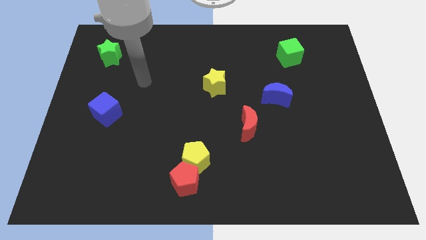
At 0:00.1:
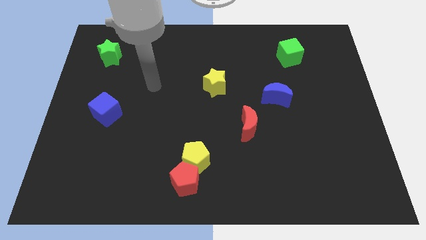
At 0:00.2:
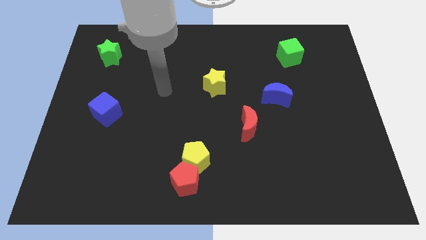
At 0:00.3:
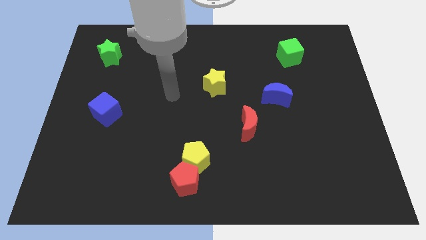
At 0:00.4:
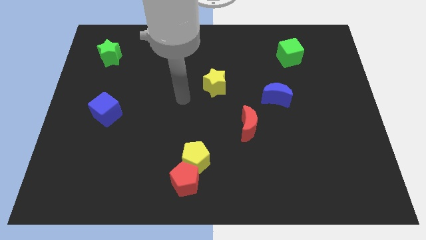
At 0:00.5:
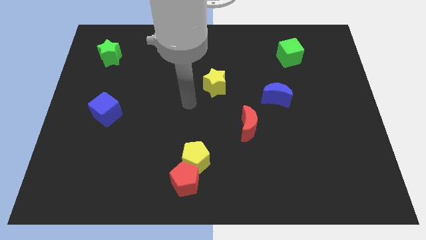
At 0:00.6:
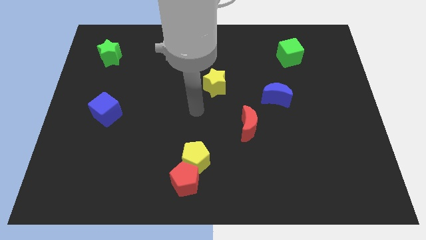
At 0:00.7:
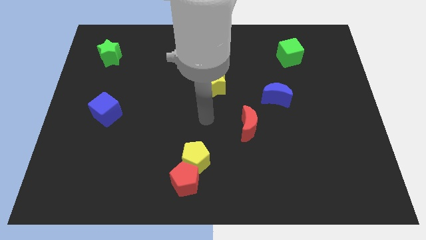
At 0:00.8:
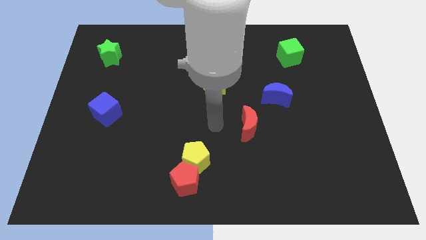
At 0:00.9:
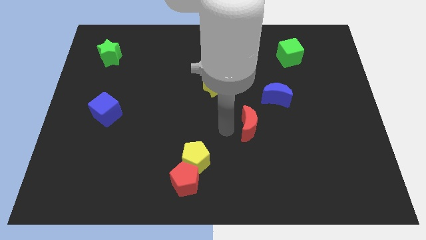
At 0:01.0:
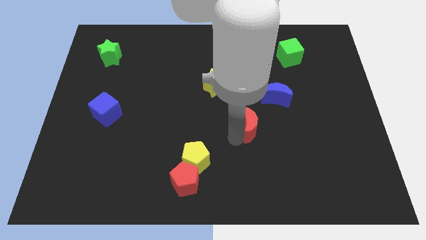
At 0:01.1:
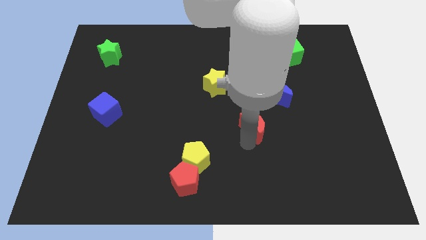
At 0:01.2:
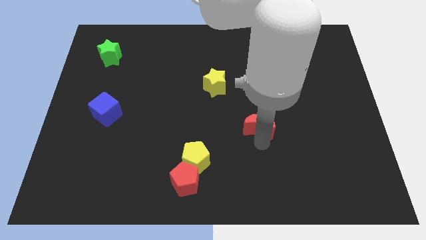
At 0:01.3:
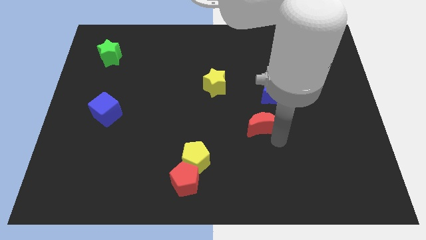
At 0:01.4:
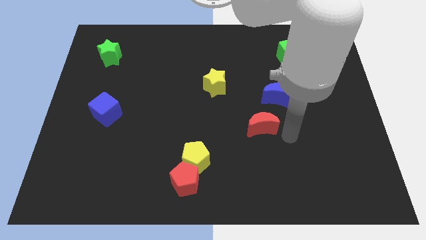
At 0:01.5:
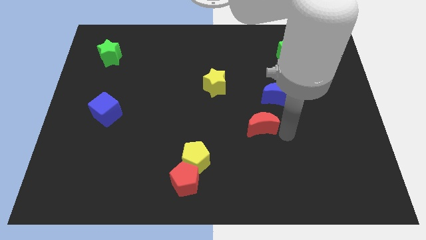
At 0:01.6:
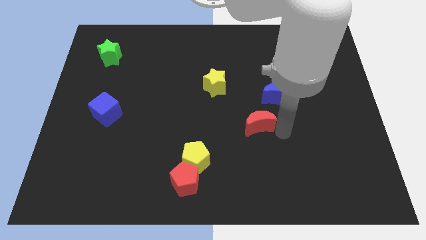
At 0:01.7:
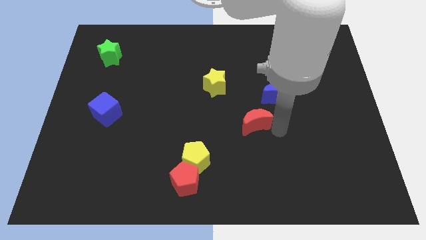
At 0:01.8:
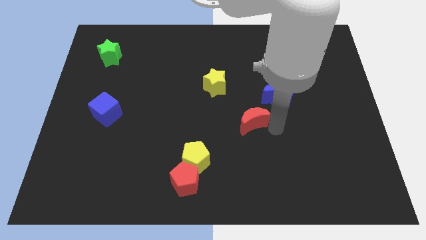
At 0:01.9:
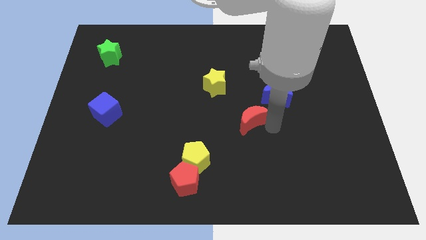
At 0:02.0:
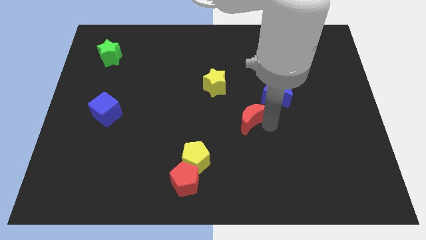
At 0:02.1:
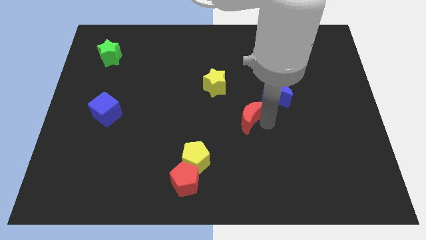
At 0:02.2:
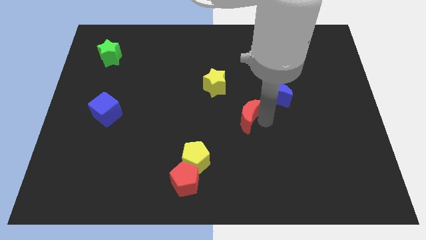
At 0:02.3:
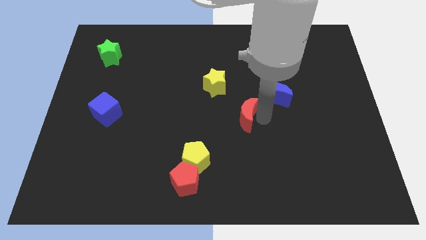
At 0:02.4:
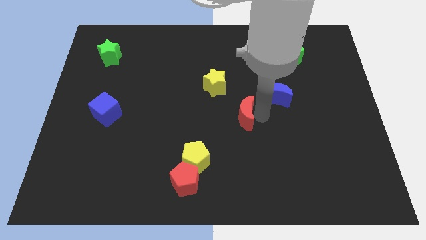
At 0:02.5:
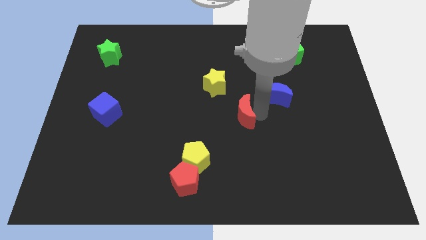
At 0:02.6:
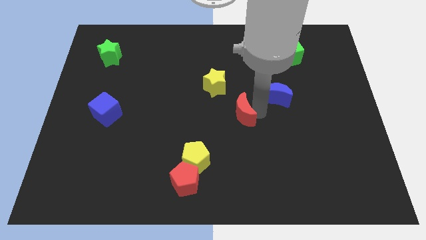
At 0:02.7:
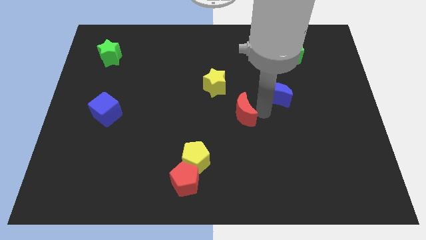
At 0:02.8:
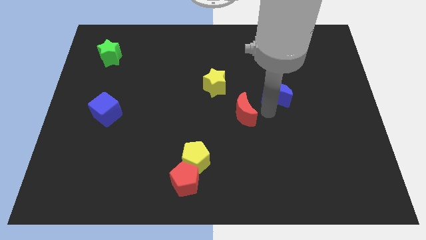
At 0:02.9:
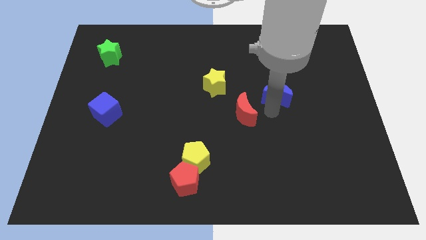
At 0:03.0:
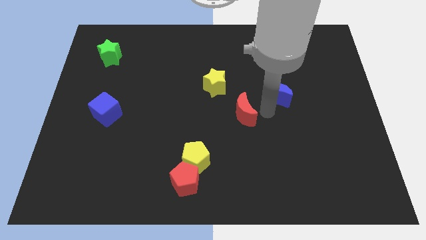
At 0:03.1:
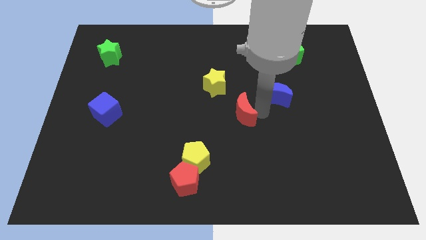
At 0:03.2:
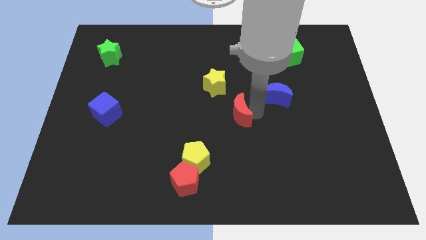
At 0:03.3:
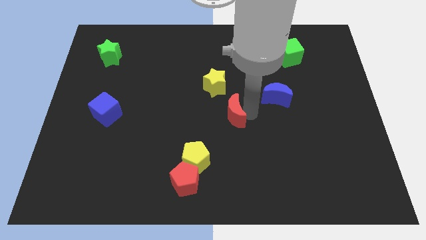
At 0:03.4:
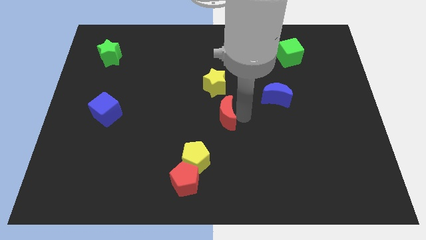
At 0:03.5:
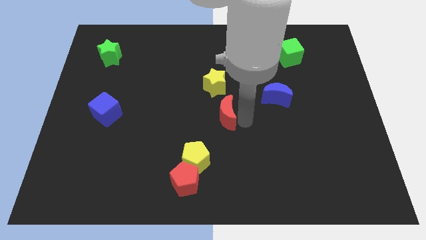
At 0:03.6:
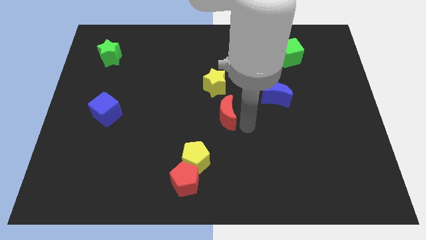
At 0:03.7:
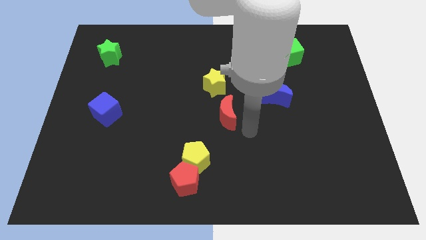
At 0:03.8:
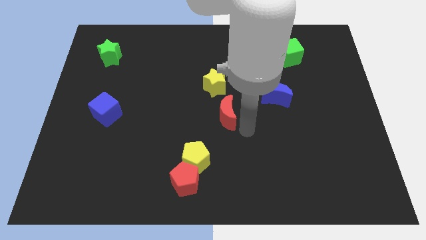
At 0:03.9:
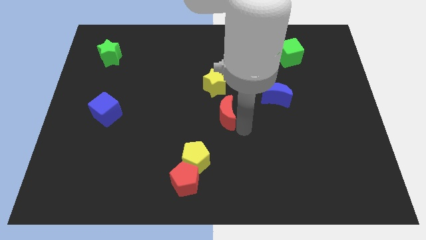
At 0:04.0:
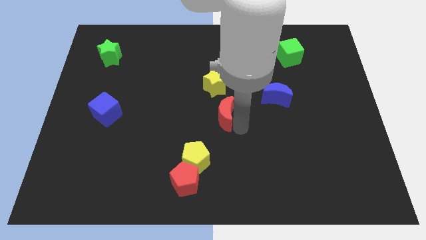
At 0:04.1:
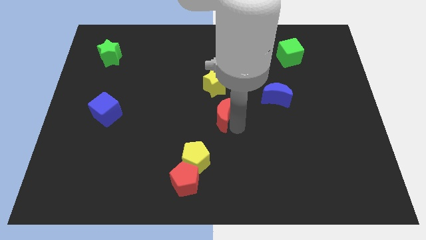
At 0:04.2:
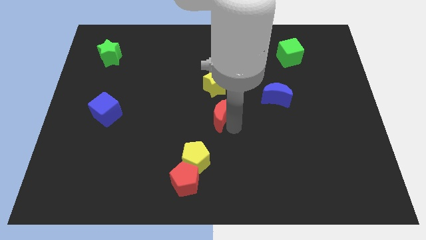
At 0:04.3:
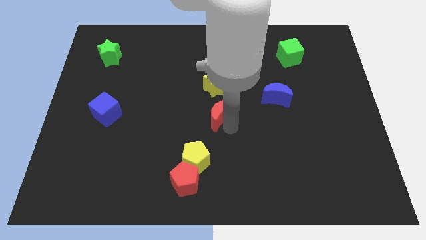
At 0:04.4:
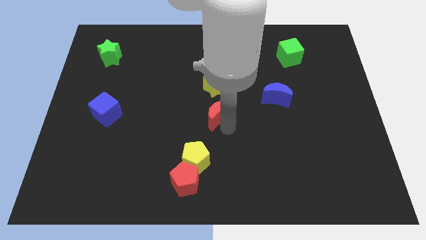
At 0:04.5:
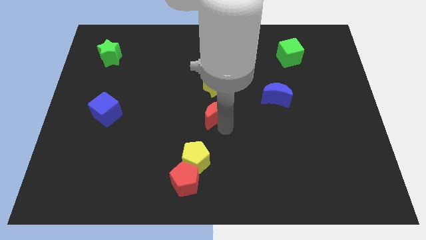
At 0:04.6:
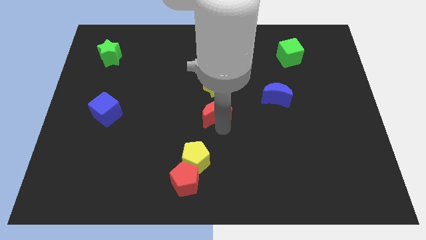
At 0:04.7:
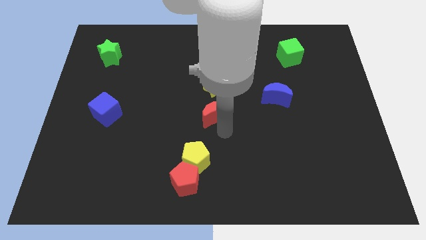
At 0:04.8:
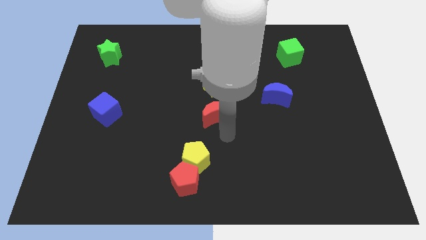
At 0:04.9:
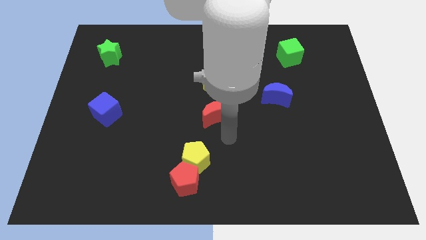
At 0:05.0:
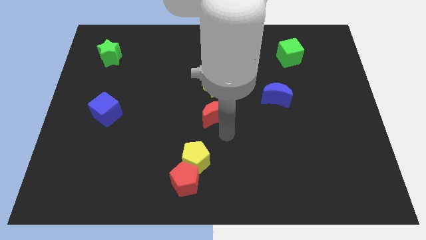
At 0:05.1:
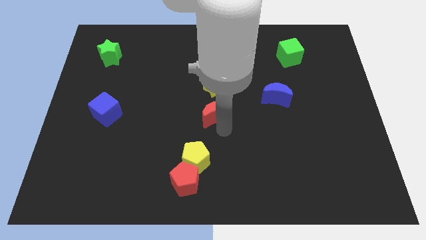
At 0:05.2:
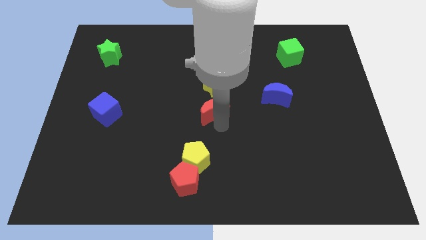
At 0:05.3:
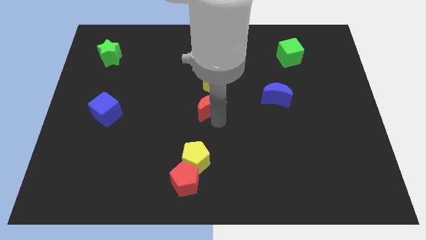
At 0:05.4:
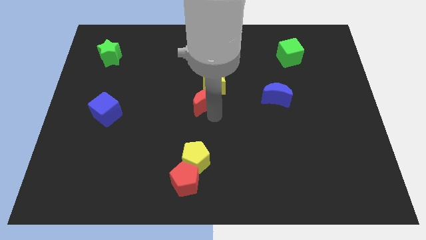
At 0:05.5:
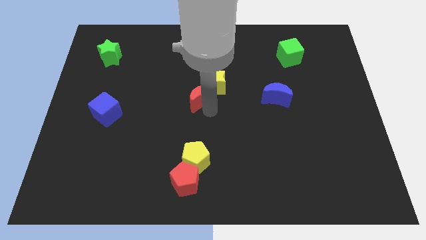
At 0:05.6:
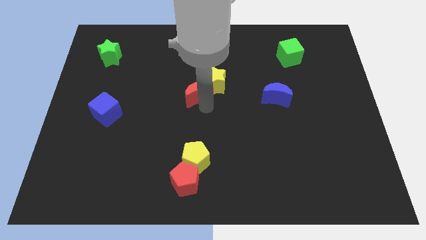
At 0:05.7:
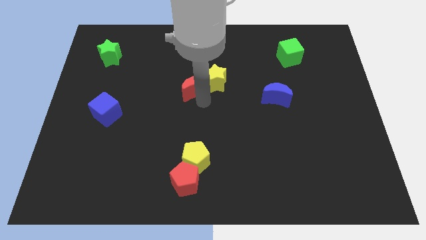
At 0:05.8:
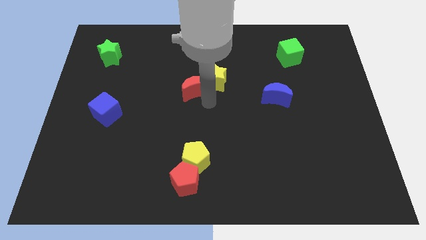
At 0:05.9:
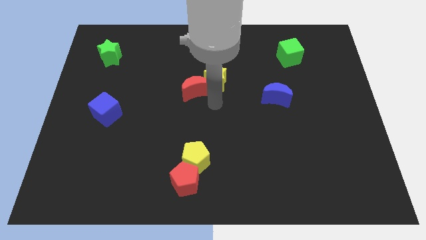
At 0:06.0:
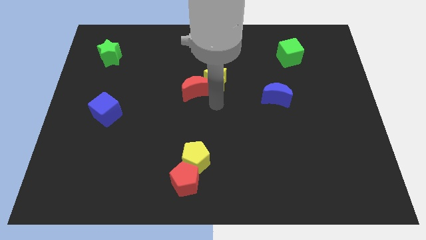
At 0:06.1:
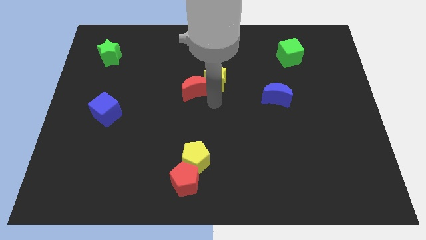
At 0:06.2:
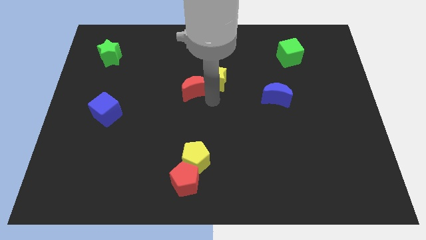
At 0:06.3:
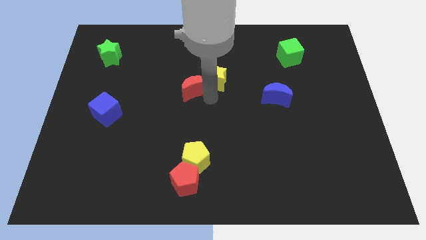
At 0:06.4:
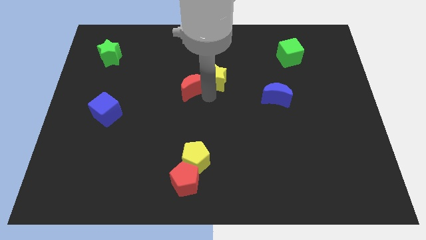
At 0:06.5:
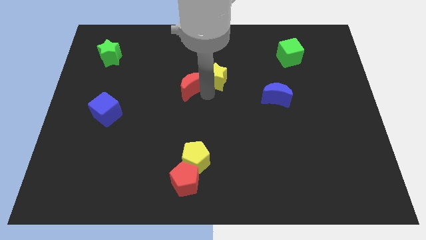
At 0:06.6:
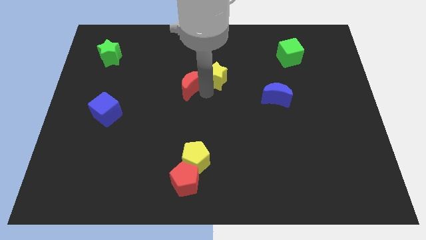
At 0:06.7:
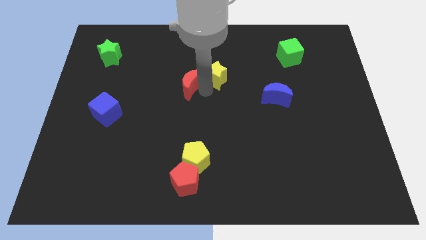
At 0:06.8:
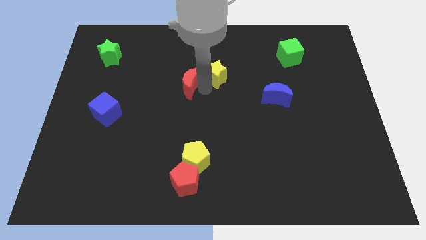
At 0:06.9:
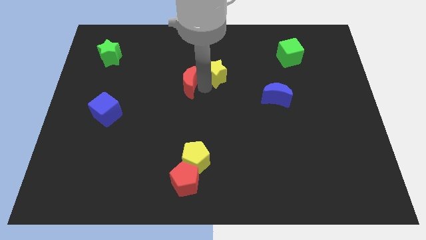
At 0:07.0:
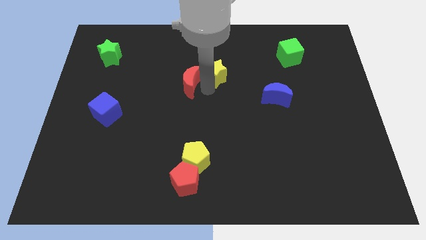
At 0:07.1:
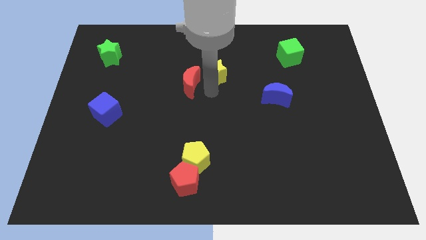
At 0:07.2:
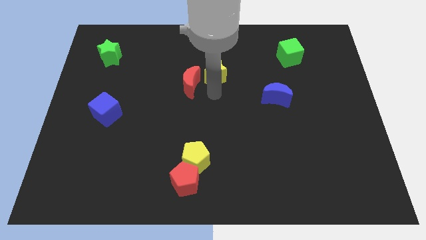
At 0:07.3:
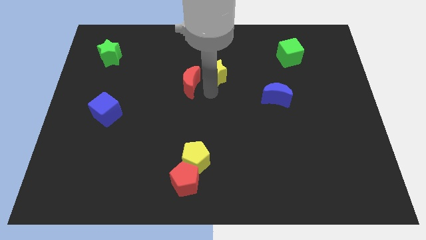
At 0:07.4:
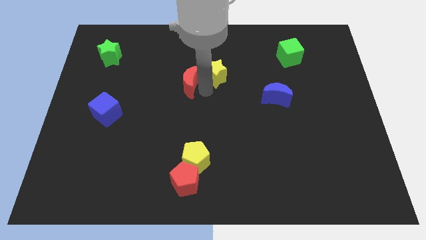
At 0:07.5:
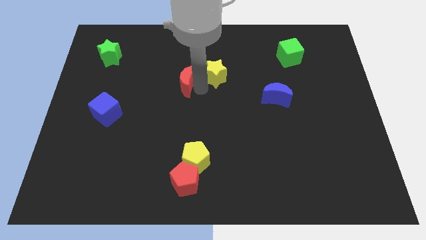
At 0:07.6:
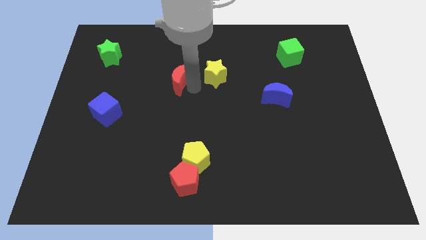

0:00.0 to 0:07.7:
move the red moon diagonally upwards and left

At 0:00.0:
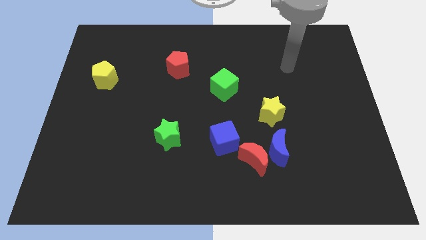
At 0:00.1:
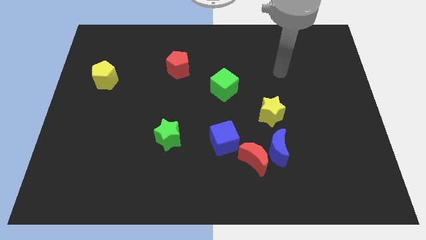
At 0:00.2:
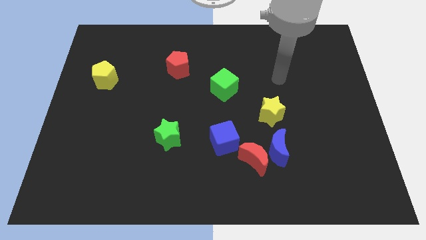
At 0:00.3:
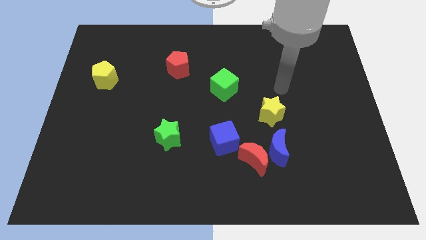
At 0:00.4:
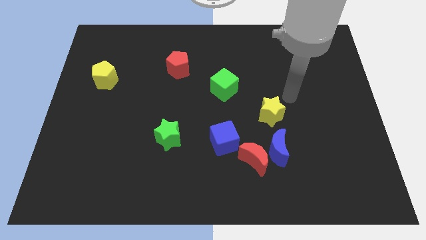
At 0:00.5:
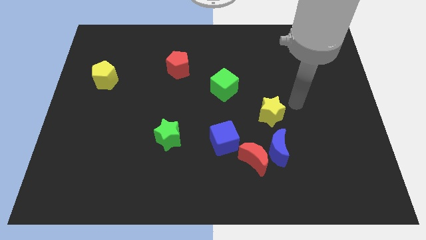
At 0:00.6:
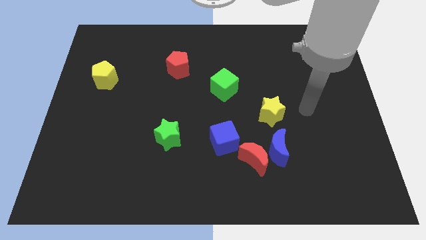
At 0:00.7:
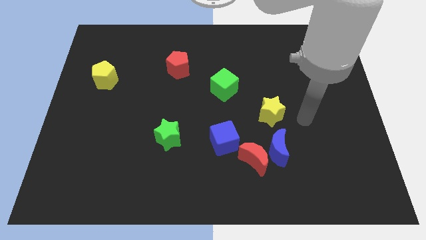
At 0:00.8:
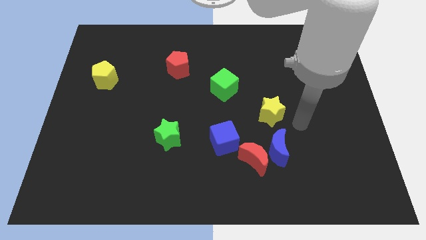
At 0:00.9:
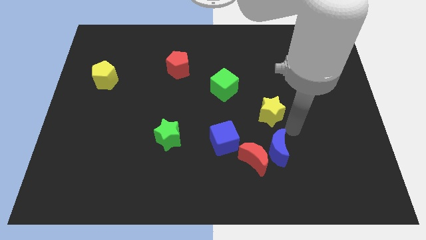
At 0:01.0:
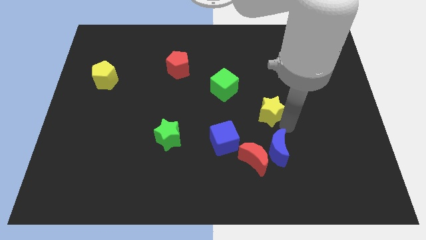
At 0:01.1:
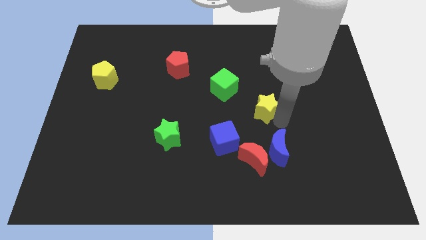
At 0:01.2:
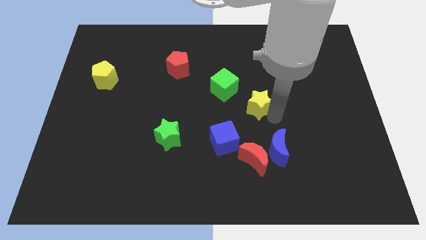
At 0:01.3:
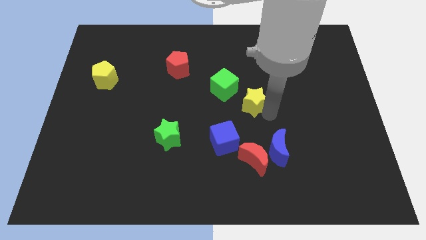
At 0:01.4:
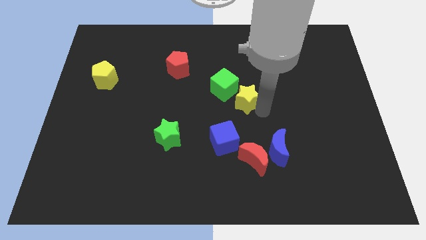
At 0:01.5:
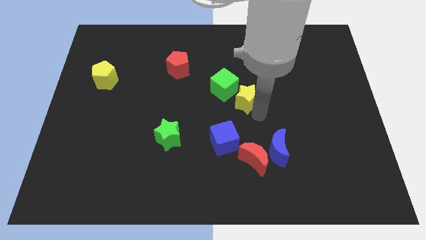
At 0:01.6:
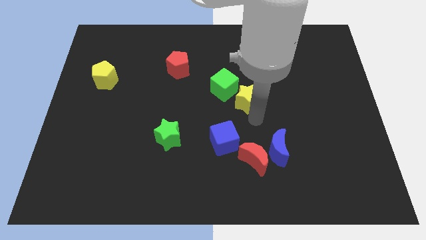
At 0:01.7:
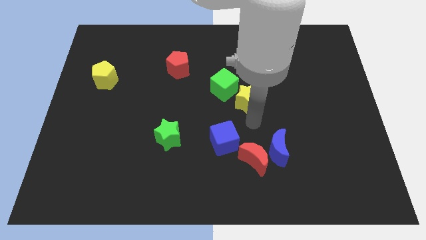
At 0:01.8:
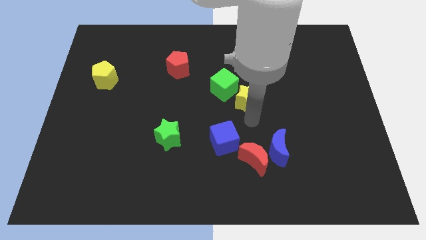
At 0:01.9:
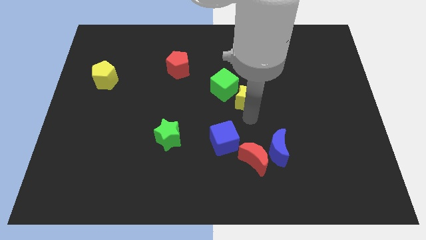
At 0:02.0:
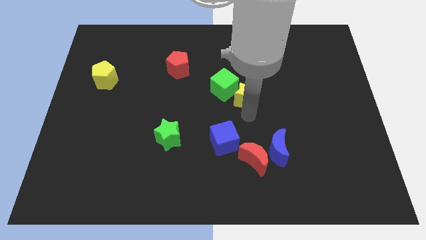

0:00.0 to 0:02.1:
slightly slide the yellow star up and then to the left
